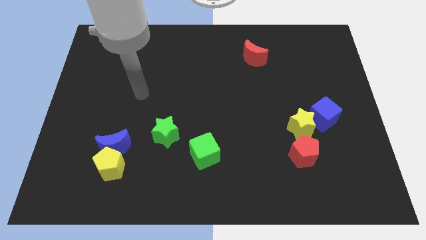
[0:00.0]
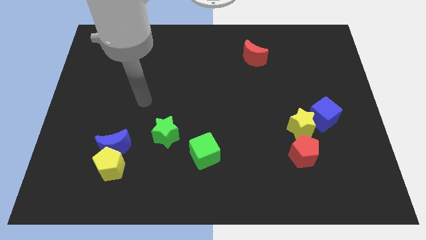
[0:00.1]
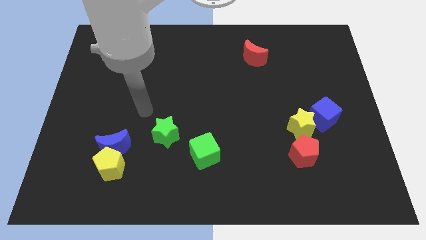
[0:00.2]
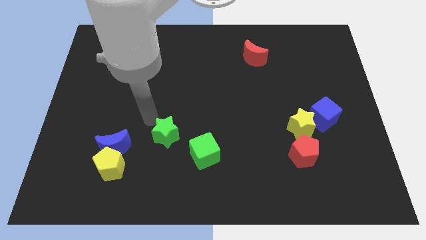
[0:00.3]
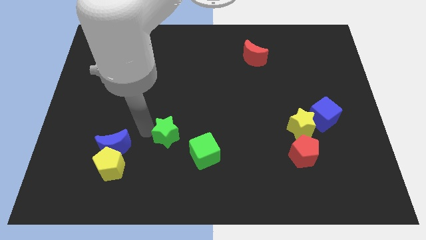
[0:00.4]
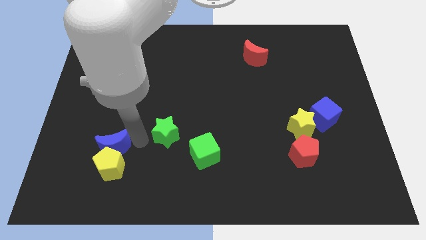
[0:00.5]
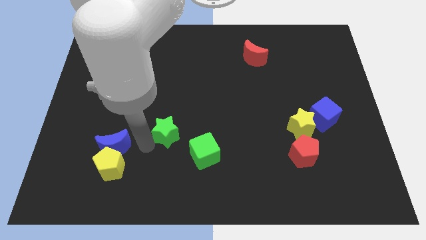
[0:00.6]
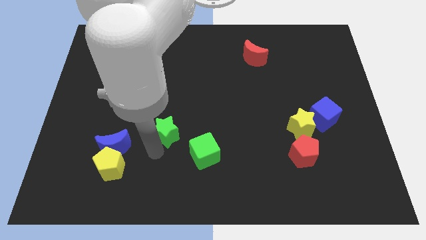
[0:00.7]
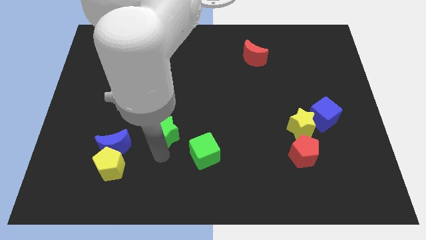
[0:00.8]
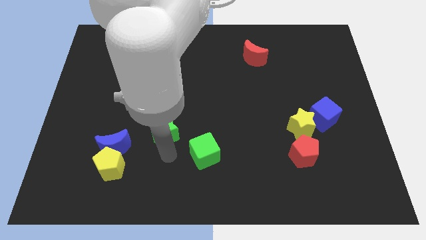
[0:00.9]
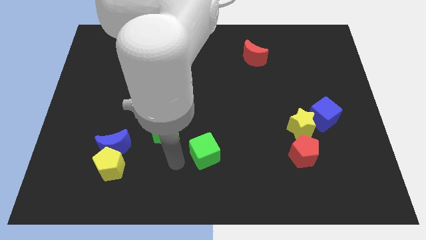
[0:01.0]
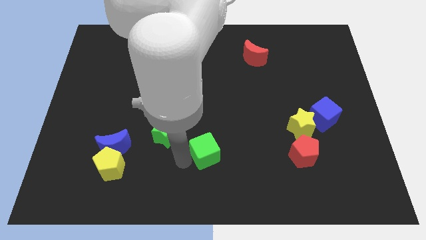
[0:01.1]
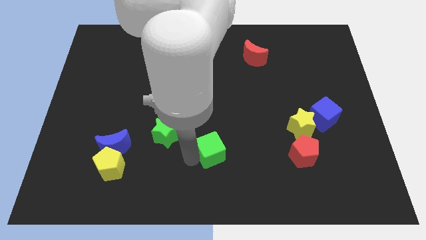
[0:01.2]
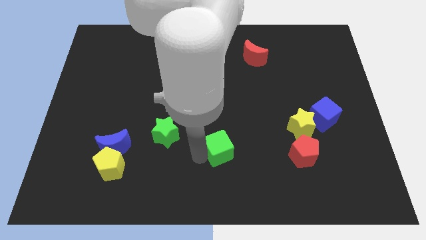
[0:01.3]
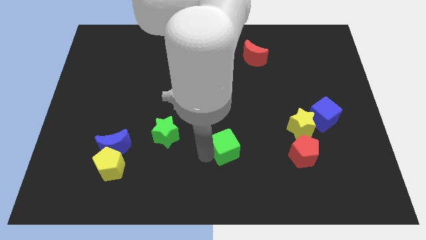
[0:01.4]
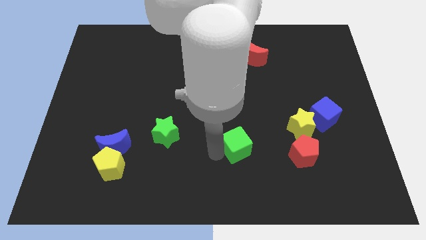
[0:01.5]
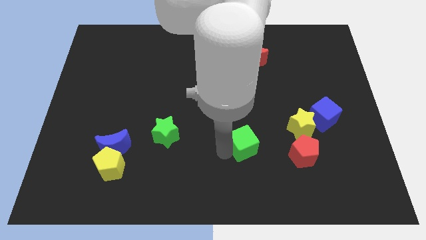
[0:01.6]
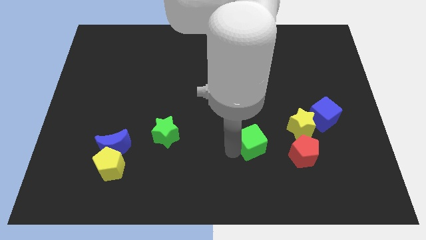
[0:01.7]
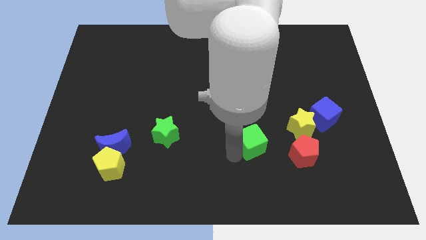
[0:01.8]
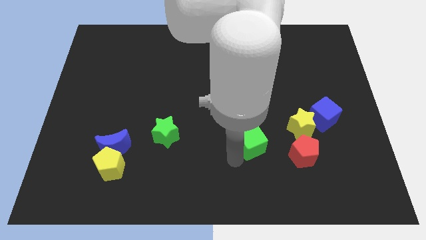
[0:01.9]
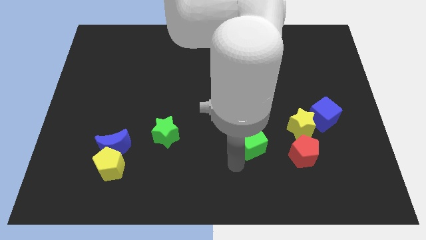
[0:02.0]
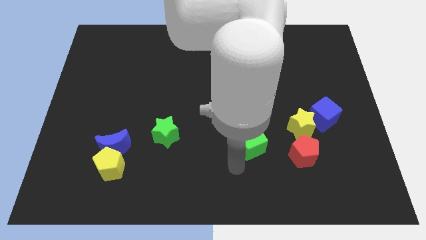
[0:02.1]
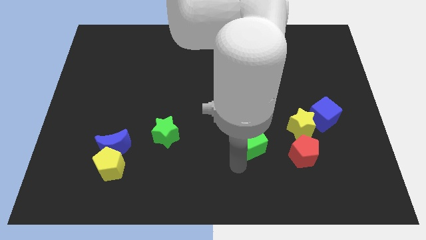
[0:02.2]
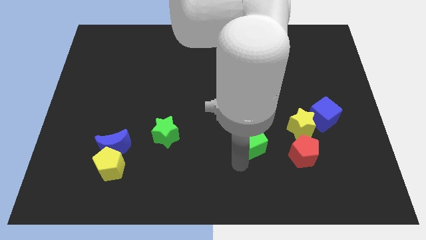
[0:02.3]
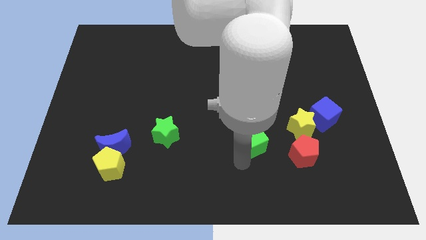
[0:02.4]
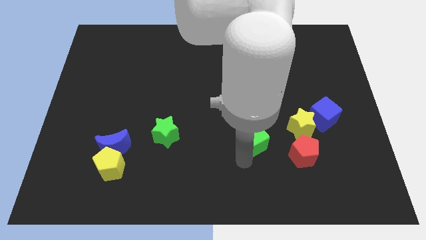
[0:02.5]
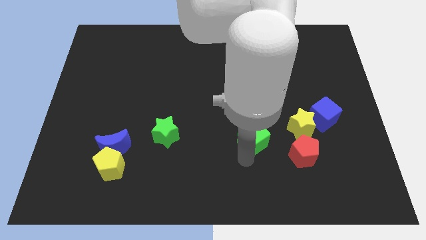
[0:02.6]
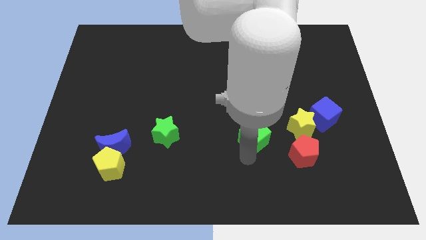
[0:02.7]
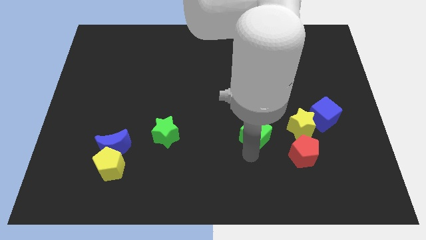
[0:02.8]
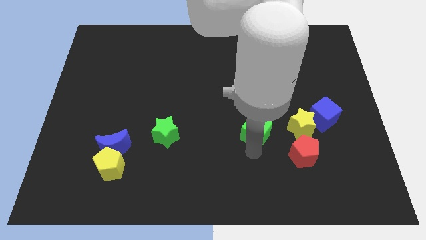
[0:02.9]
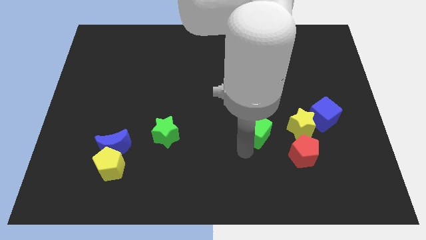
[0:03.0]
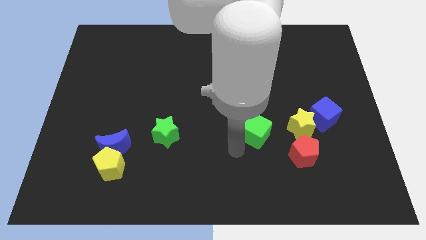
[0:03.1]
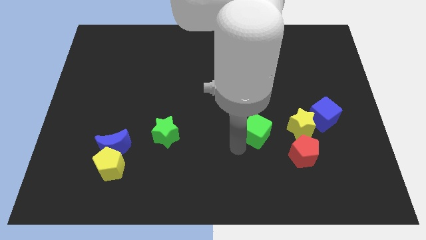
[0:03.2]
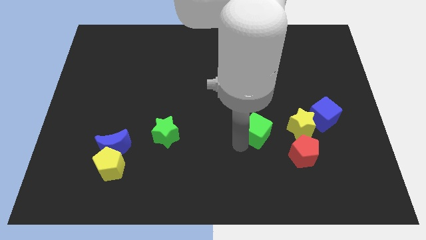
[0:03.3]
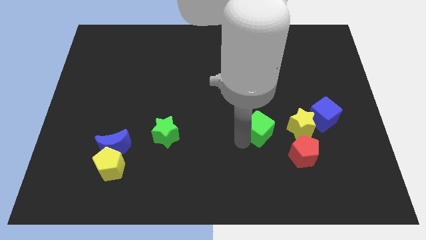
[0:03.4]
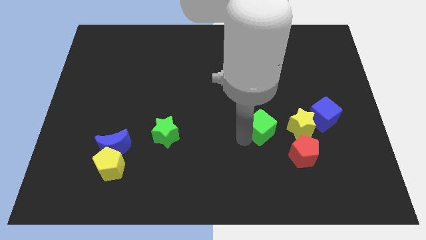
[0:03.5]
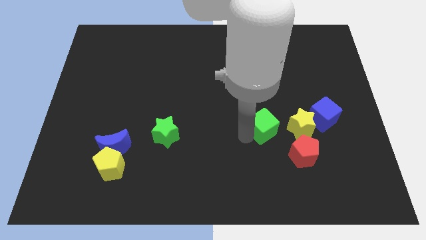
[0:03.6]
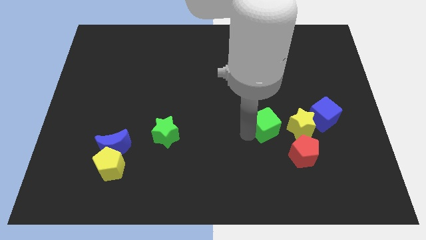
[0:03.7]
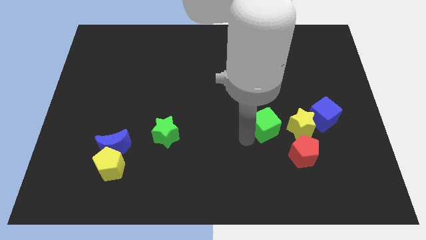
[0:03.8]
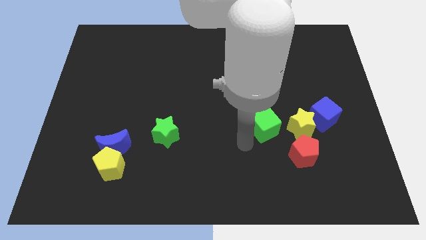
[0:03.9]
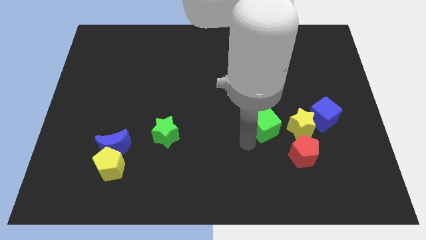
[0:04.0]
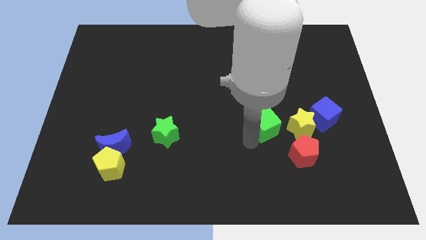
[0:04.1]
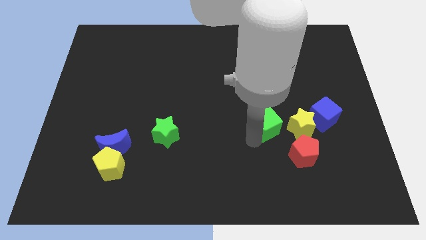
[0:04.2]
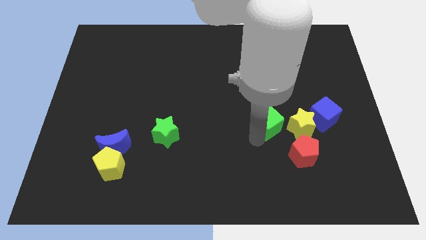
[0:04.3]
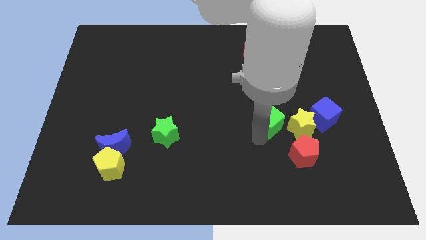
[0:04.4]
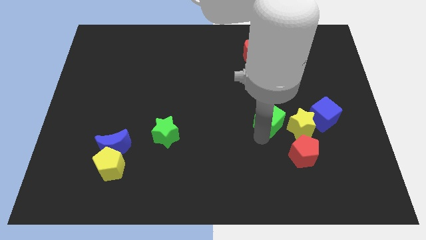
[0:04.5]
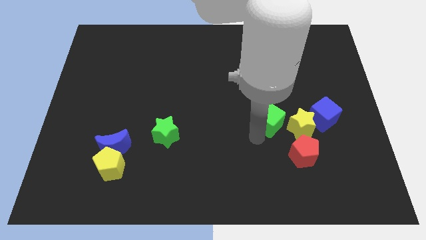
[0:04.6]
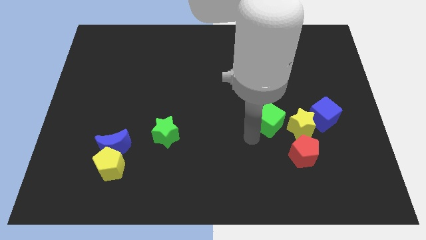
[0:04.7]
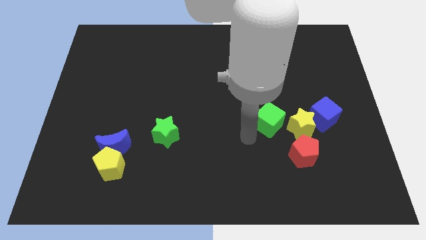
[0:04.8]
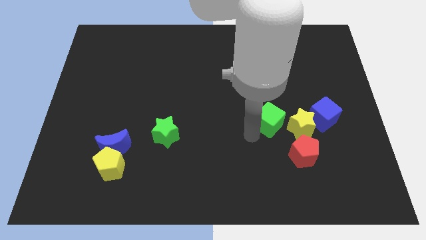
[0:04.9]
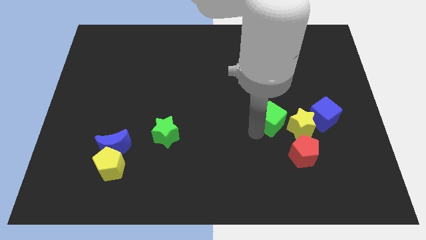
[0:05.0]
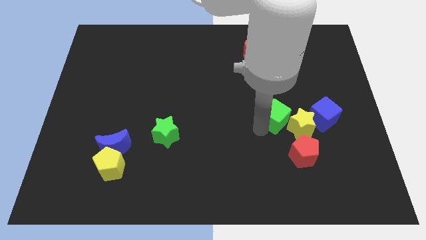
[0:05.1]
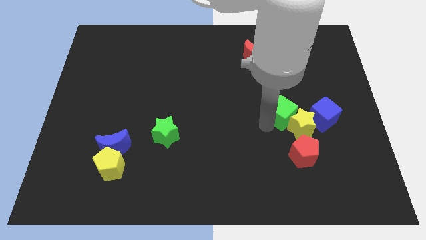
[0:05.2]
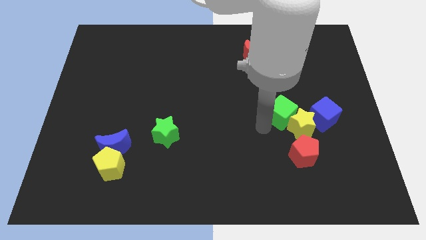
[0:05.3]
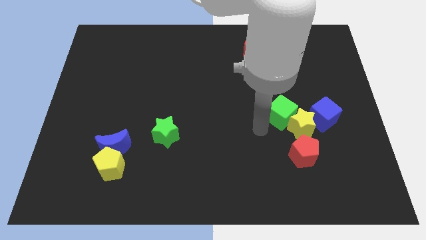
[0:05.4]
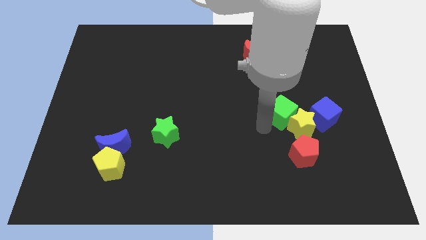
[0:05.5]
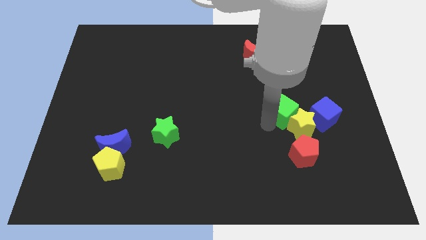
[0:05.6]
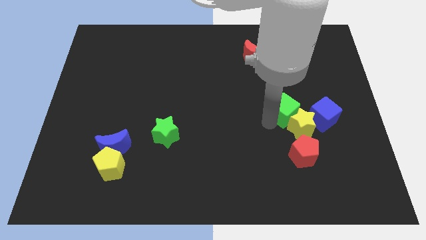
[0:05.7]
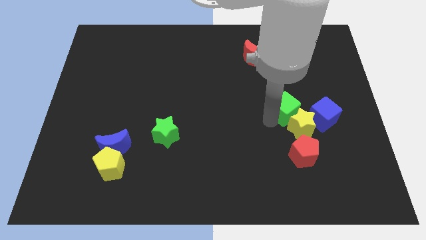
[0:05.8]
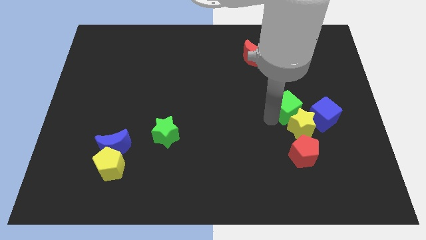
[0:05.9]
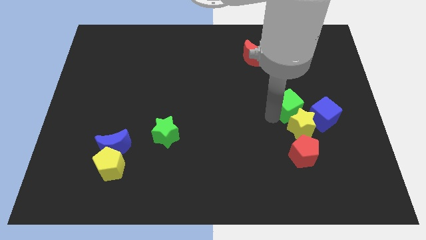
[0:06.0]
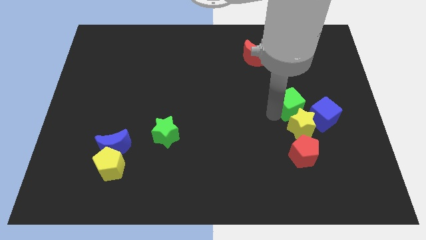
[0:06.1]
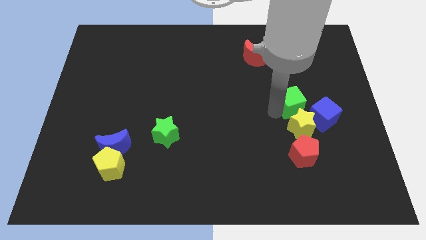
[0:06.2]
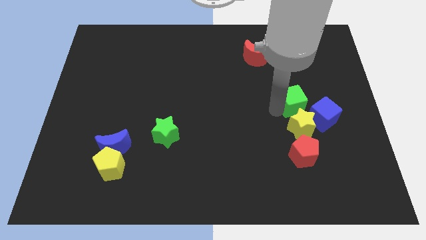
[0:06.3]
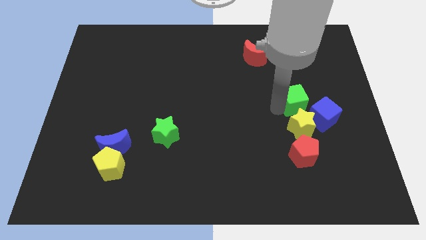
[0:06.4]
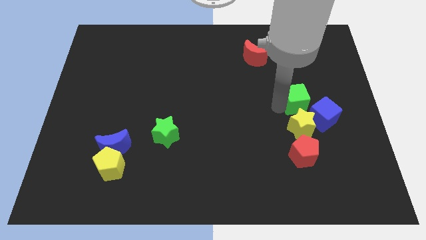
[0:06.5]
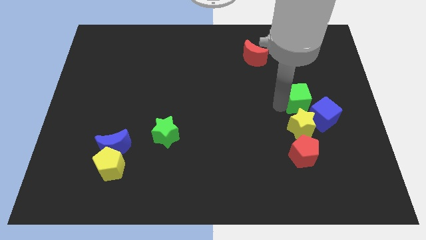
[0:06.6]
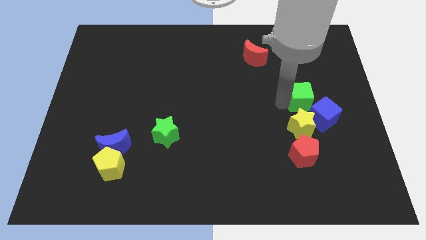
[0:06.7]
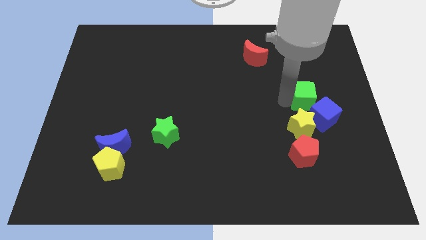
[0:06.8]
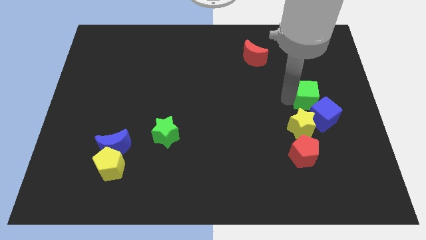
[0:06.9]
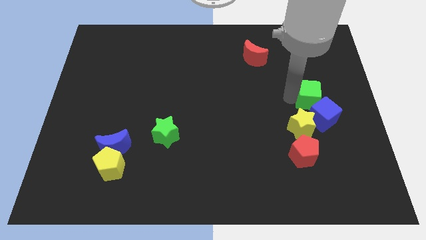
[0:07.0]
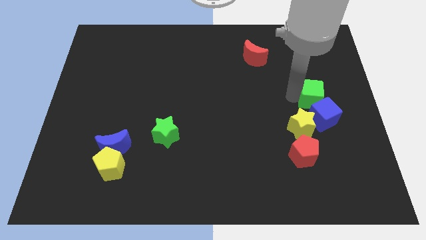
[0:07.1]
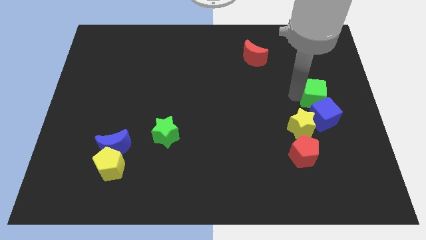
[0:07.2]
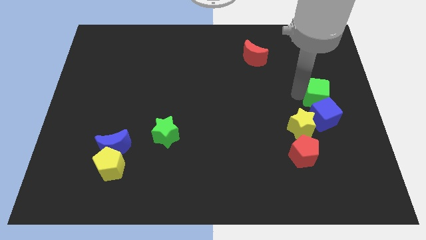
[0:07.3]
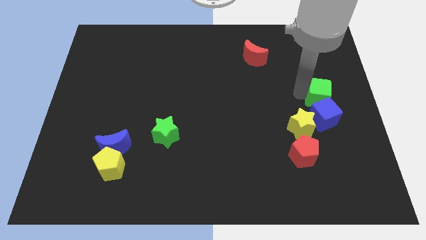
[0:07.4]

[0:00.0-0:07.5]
push the green cube to the center right
